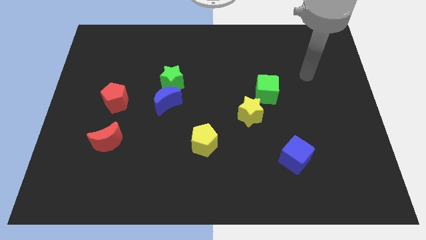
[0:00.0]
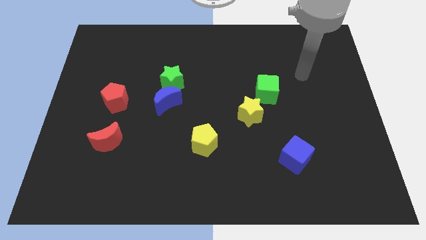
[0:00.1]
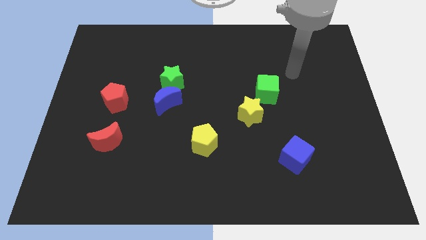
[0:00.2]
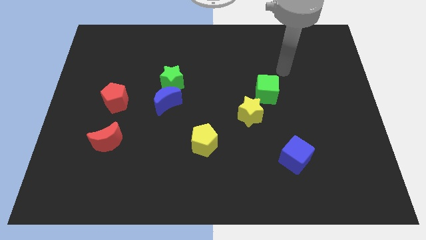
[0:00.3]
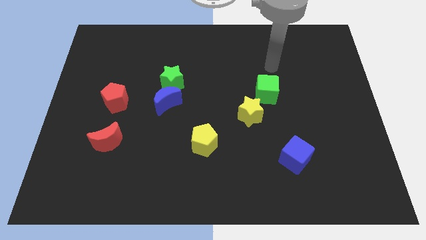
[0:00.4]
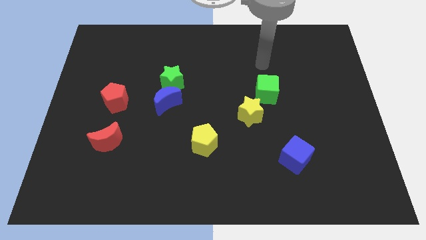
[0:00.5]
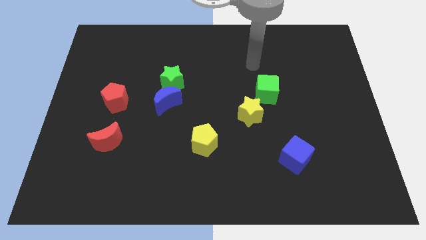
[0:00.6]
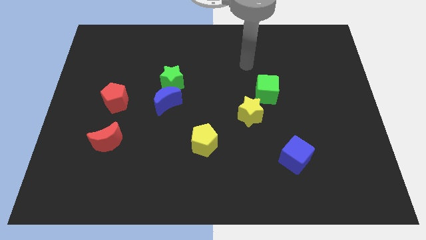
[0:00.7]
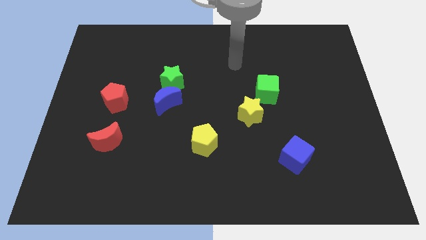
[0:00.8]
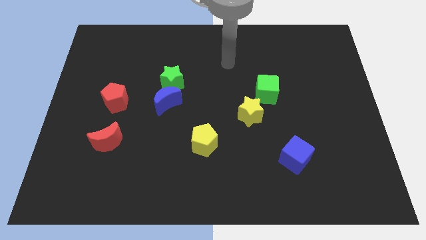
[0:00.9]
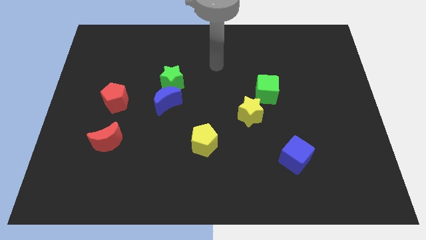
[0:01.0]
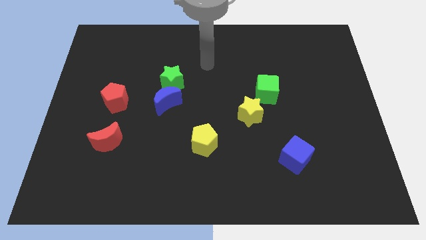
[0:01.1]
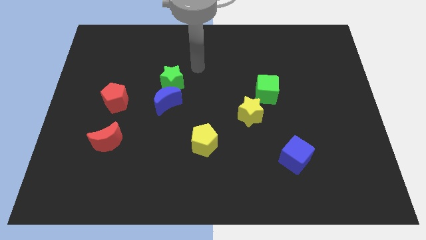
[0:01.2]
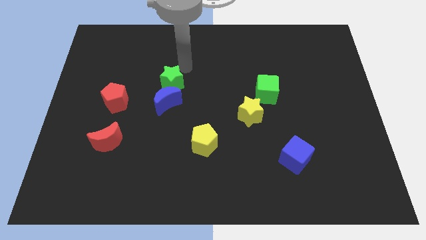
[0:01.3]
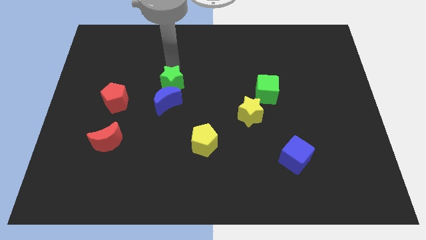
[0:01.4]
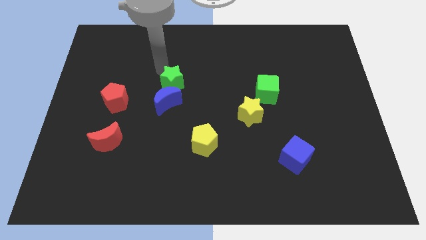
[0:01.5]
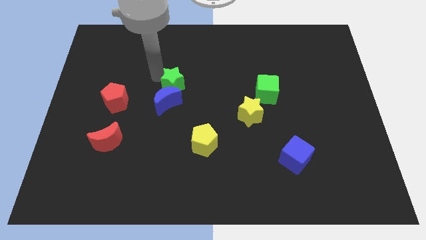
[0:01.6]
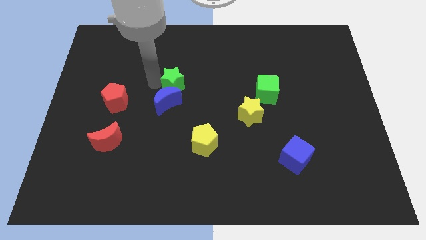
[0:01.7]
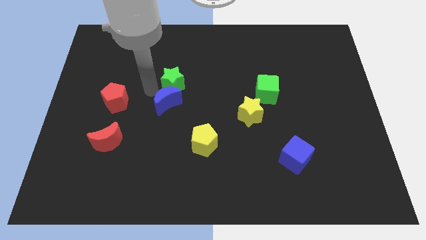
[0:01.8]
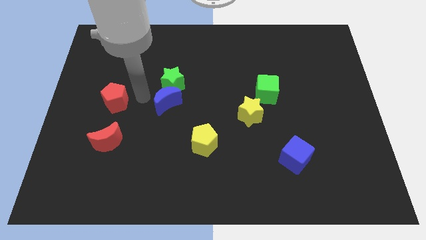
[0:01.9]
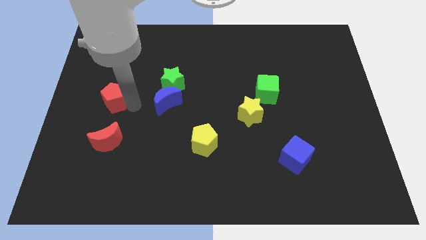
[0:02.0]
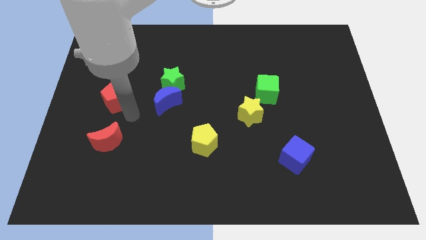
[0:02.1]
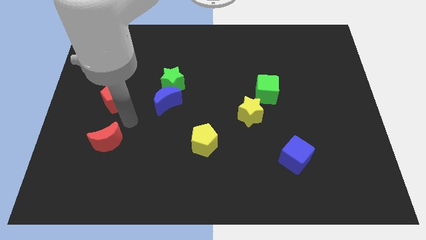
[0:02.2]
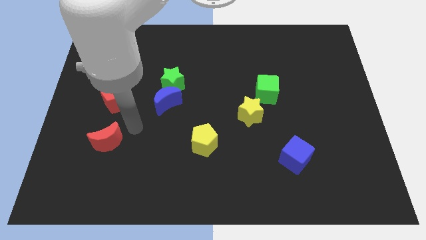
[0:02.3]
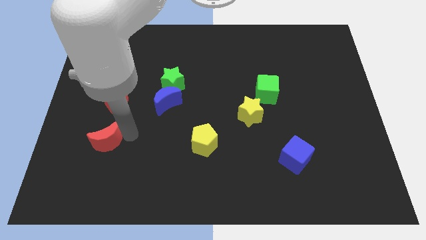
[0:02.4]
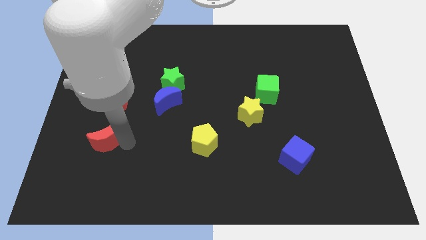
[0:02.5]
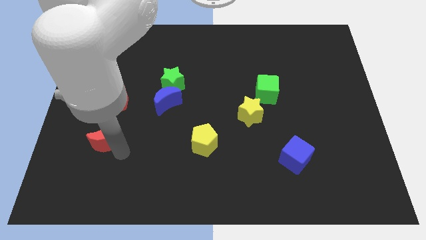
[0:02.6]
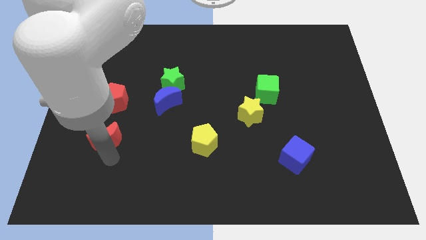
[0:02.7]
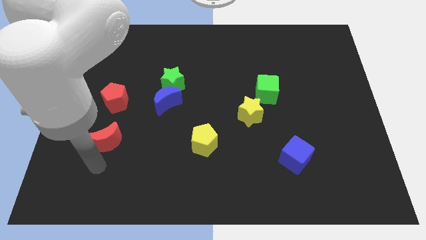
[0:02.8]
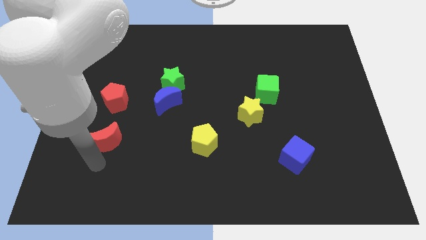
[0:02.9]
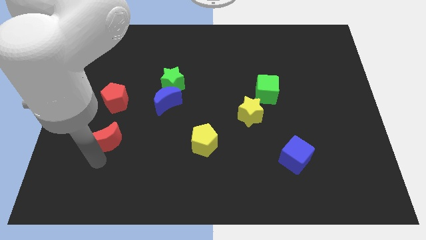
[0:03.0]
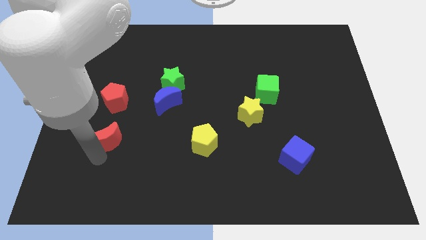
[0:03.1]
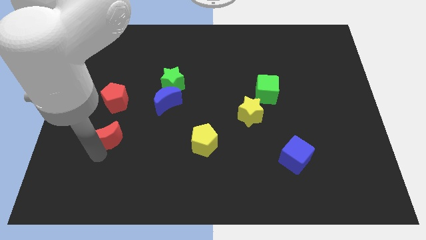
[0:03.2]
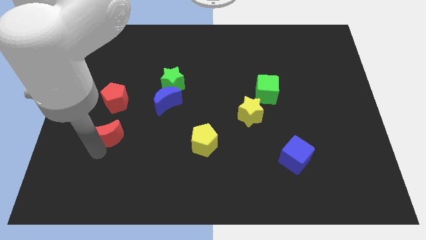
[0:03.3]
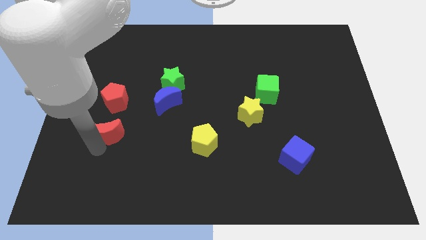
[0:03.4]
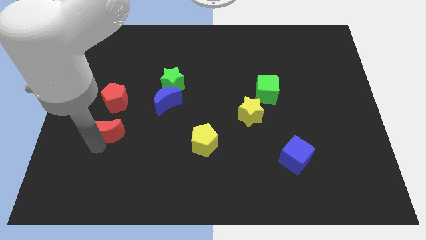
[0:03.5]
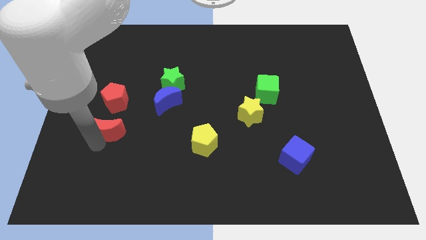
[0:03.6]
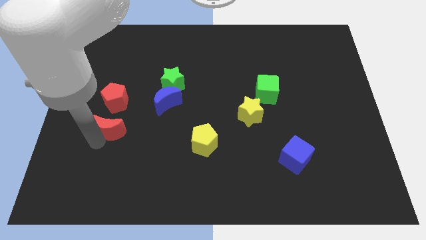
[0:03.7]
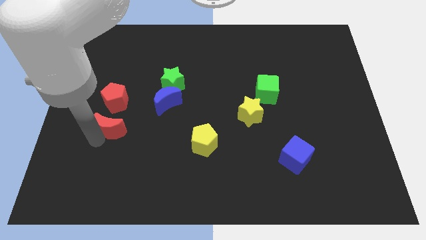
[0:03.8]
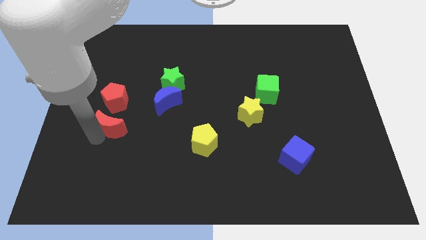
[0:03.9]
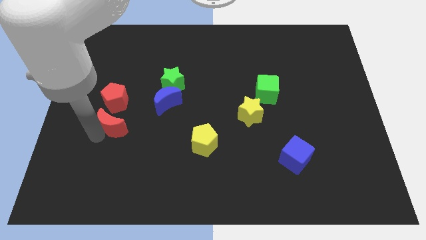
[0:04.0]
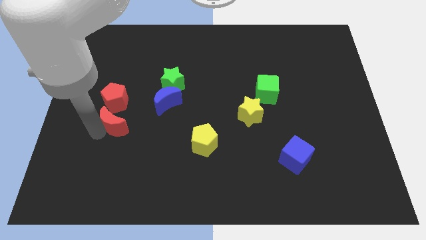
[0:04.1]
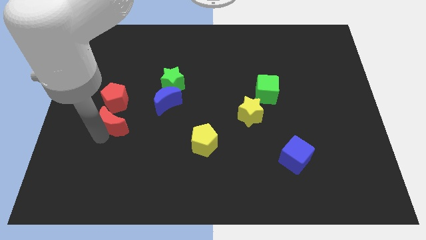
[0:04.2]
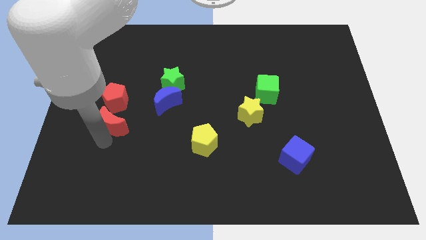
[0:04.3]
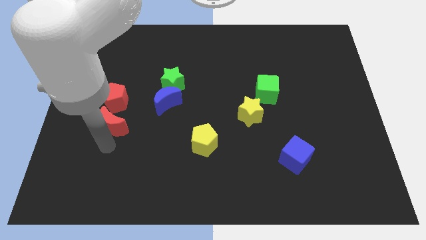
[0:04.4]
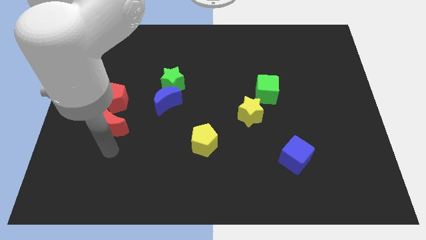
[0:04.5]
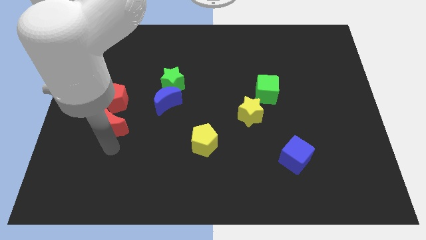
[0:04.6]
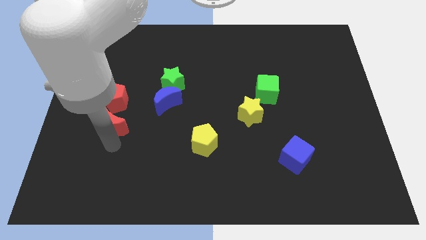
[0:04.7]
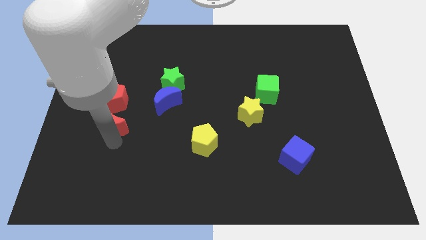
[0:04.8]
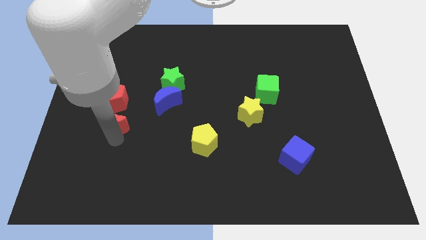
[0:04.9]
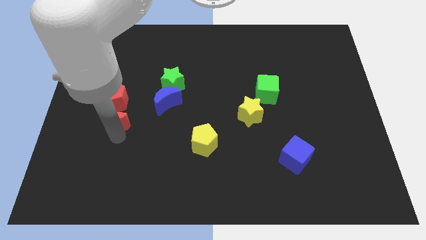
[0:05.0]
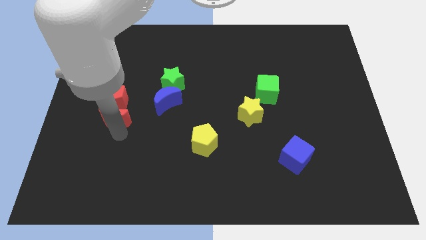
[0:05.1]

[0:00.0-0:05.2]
slide the red moon next to the red pentagon

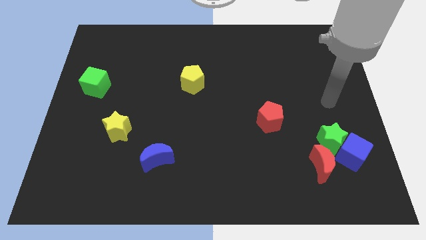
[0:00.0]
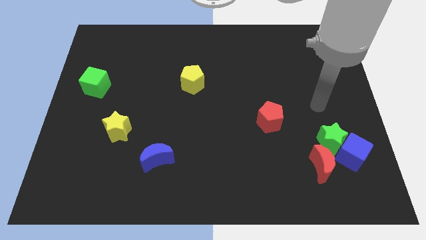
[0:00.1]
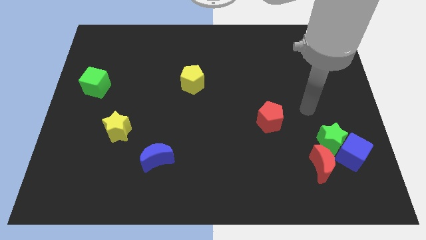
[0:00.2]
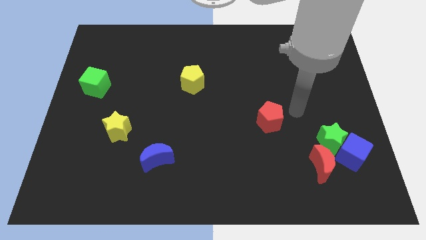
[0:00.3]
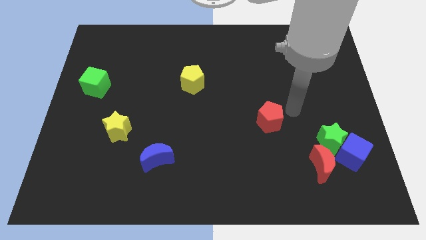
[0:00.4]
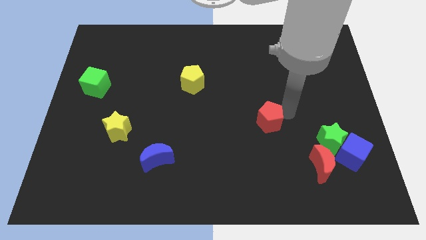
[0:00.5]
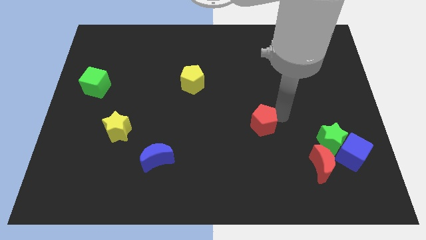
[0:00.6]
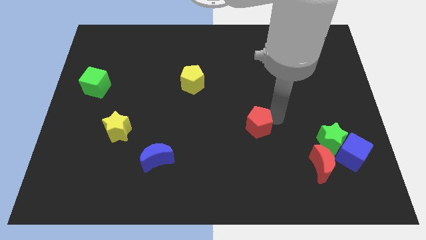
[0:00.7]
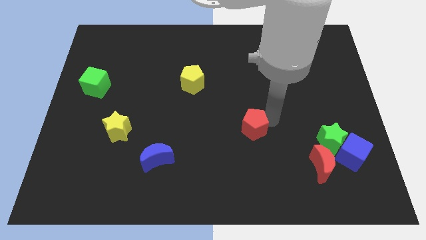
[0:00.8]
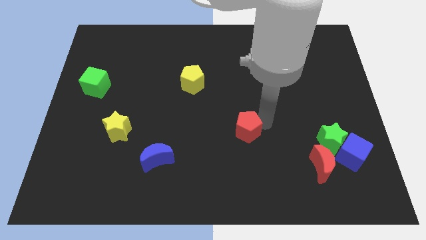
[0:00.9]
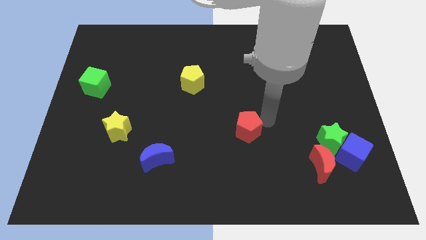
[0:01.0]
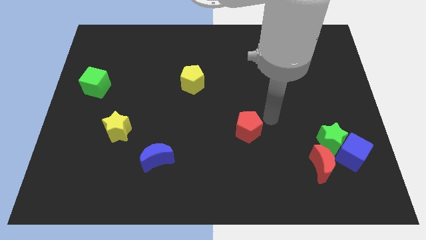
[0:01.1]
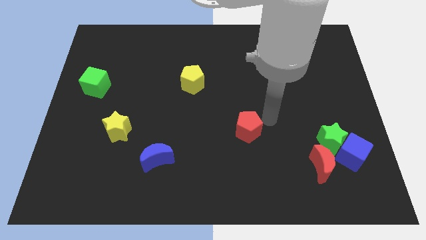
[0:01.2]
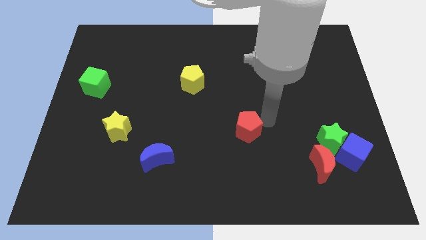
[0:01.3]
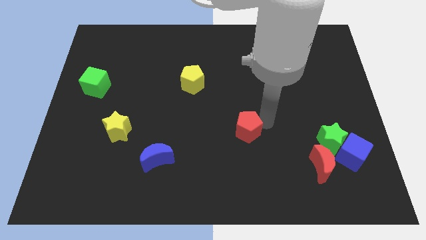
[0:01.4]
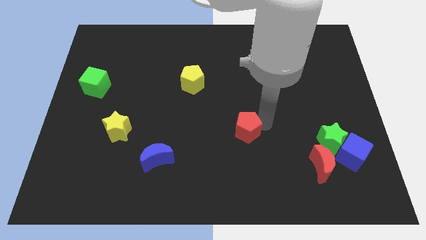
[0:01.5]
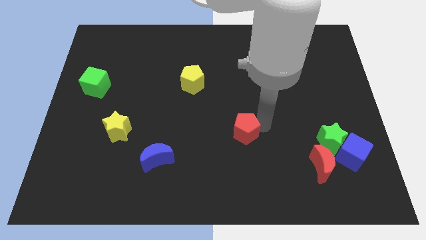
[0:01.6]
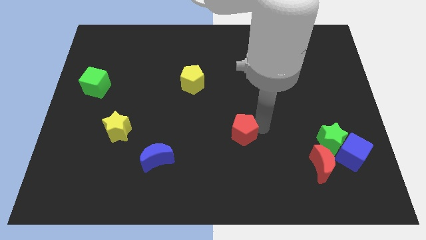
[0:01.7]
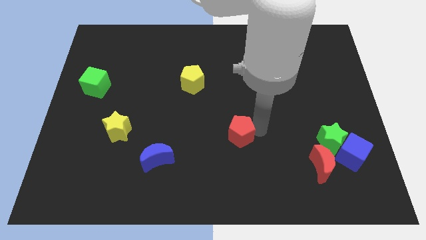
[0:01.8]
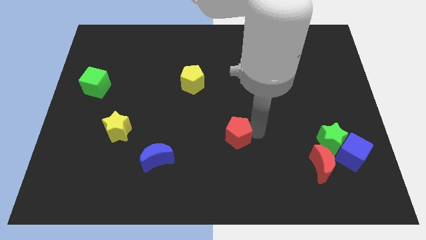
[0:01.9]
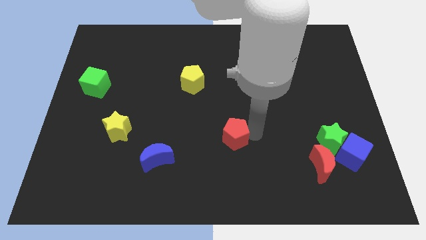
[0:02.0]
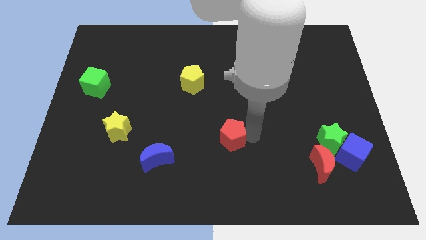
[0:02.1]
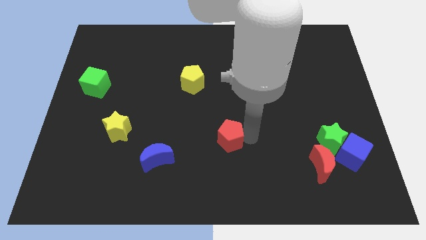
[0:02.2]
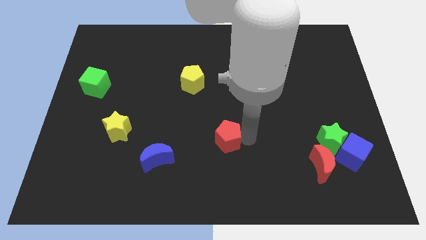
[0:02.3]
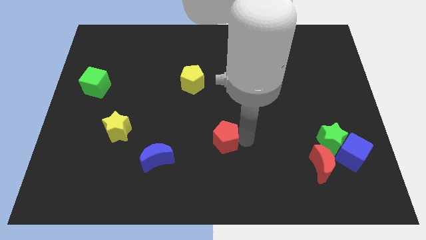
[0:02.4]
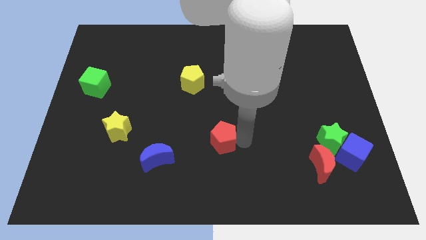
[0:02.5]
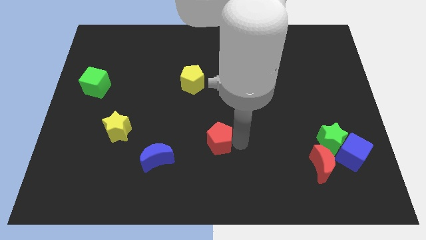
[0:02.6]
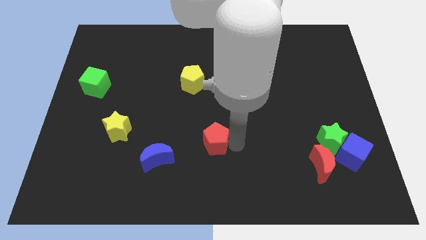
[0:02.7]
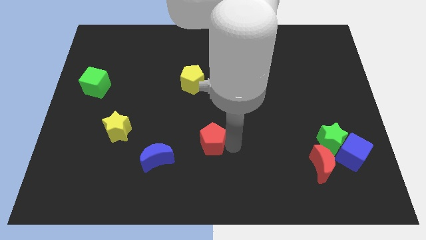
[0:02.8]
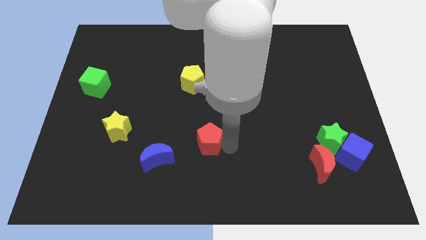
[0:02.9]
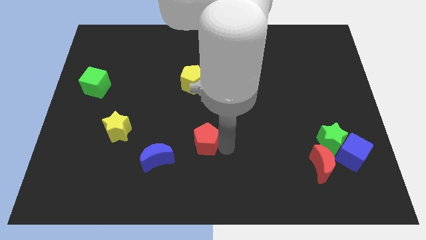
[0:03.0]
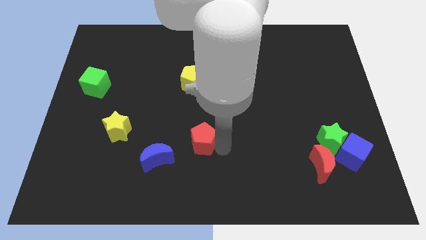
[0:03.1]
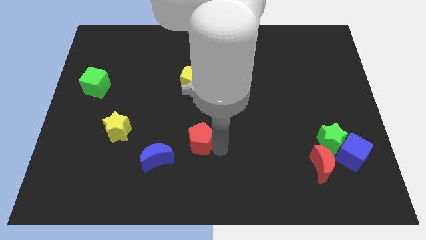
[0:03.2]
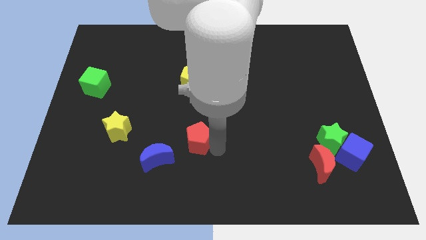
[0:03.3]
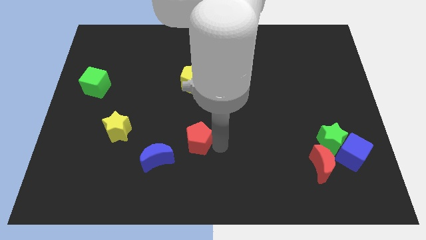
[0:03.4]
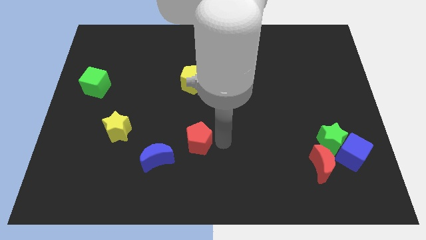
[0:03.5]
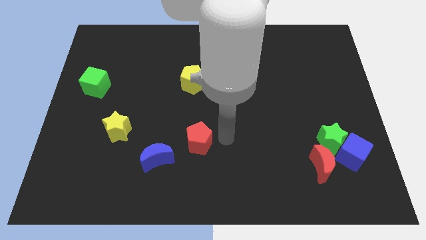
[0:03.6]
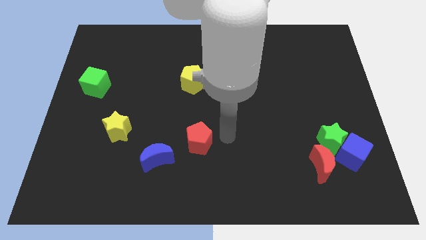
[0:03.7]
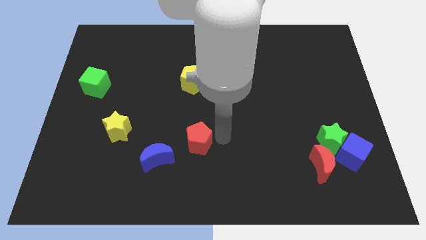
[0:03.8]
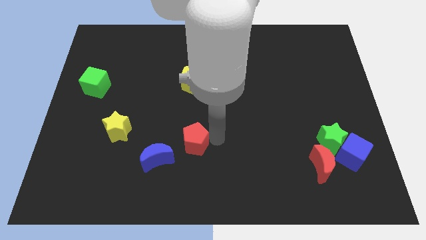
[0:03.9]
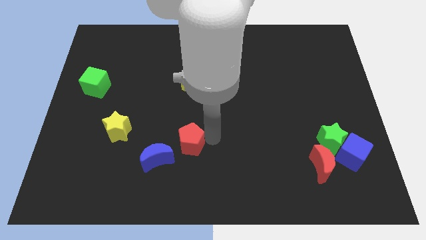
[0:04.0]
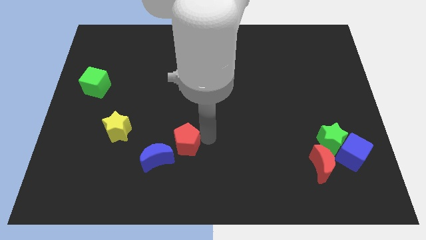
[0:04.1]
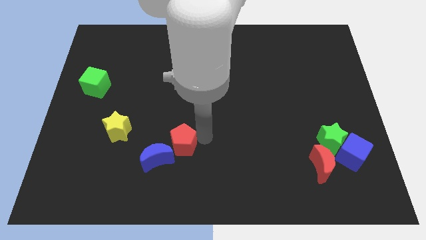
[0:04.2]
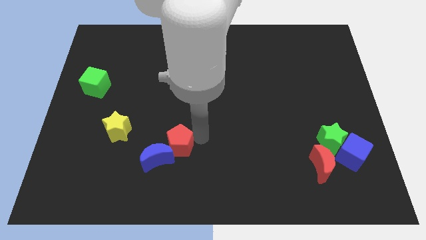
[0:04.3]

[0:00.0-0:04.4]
slide the red pentagon close to the blue moon
